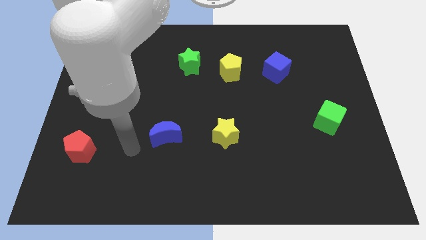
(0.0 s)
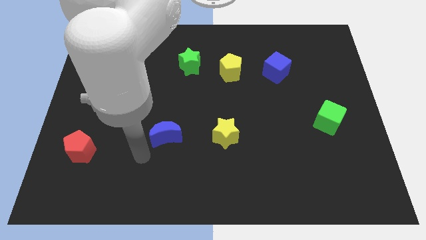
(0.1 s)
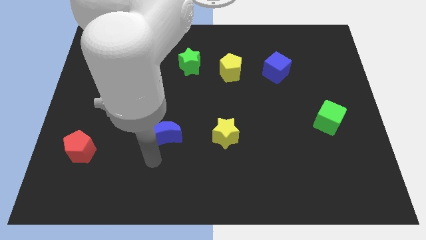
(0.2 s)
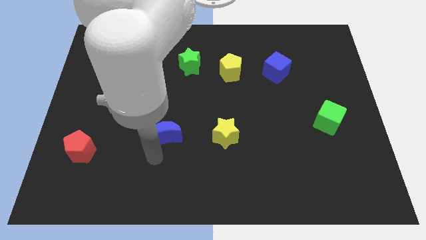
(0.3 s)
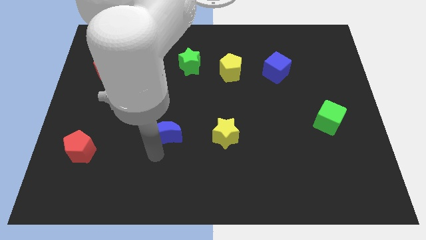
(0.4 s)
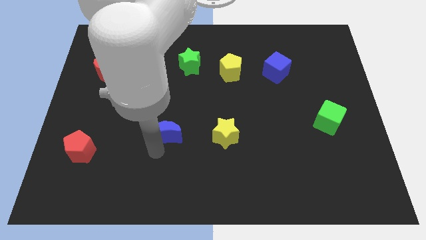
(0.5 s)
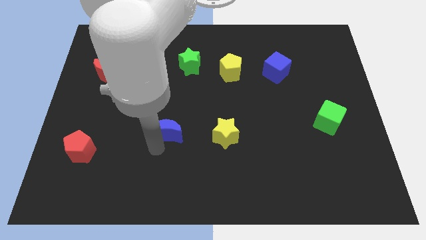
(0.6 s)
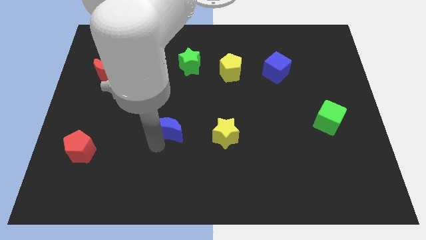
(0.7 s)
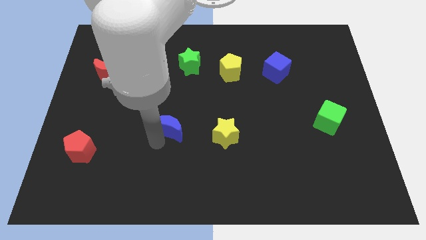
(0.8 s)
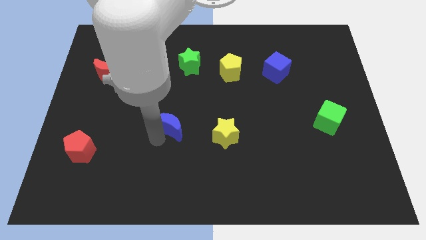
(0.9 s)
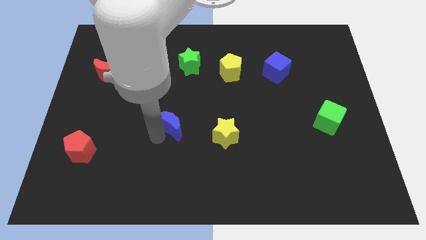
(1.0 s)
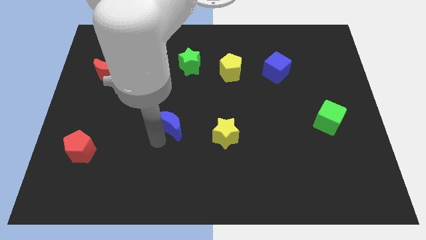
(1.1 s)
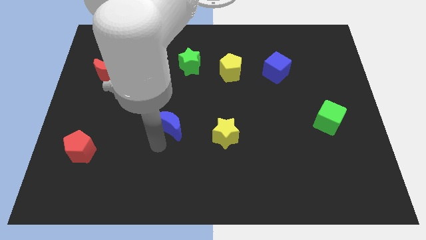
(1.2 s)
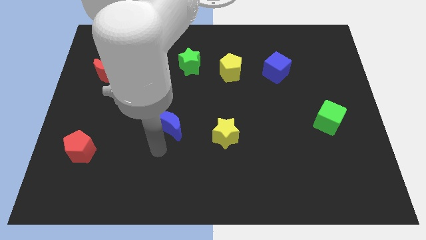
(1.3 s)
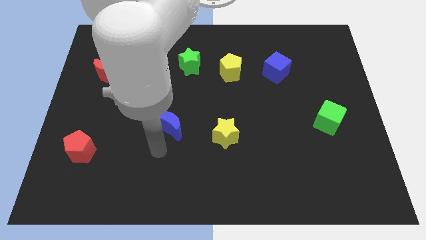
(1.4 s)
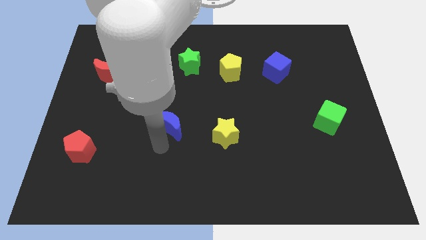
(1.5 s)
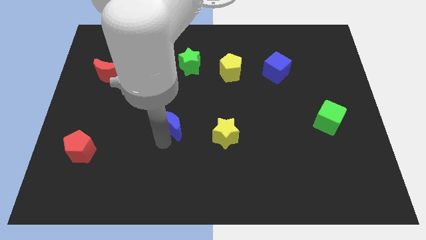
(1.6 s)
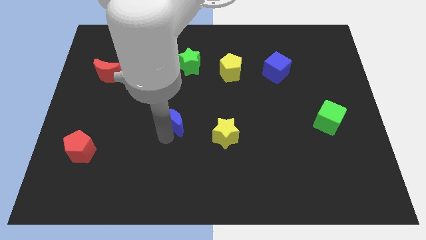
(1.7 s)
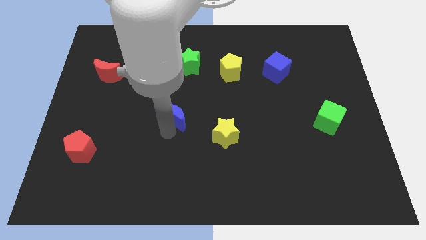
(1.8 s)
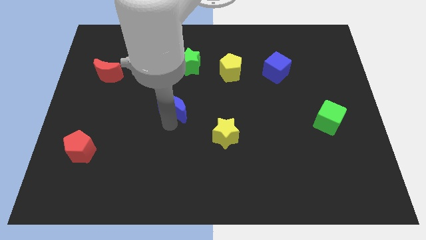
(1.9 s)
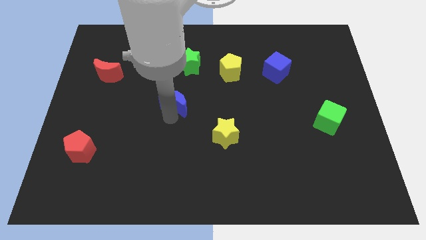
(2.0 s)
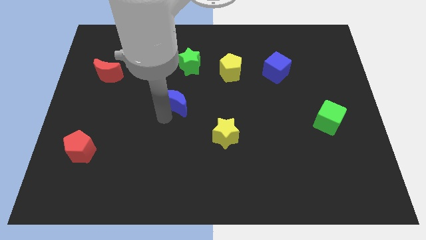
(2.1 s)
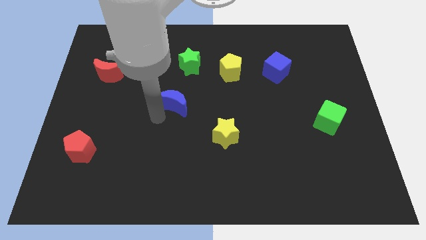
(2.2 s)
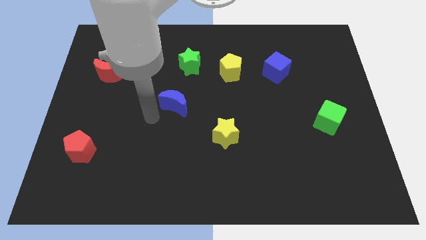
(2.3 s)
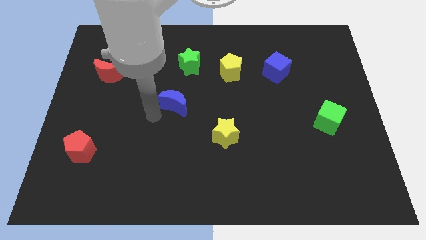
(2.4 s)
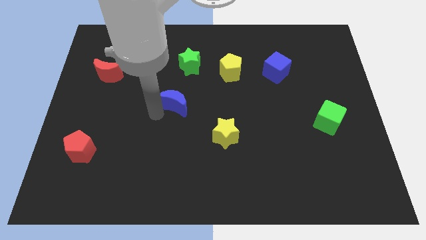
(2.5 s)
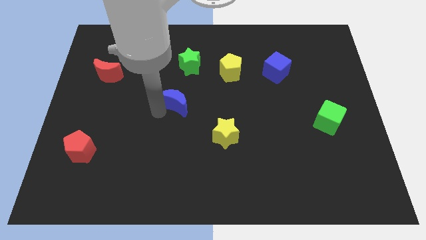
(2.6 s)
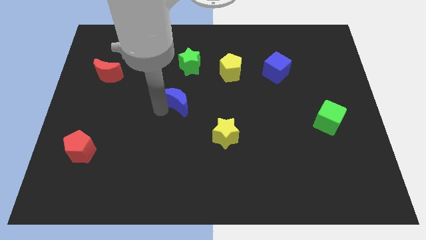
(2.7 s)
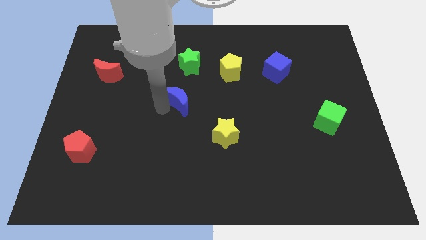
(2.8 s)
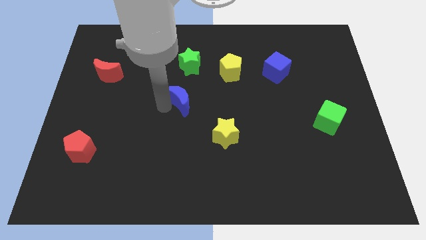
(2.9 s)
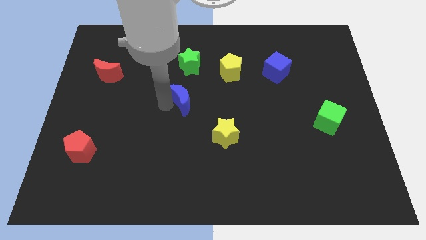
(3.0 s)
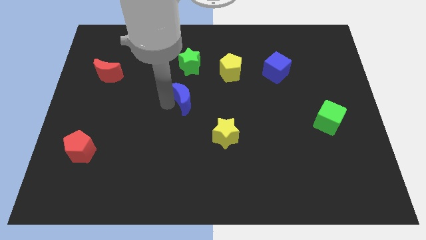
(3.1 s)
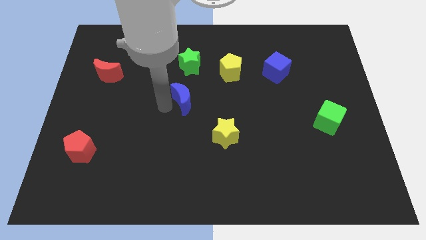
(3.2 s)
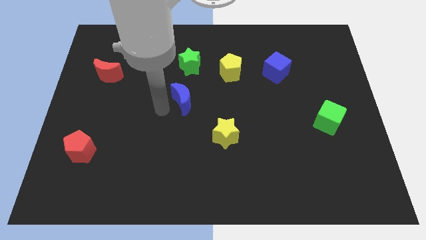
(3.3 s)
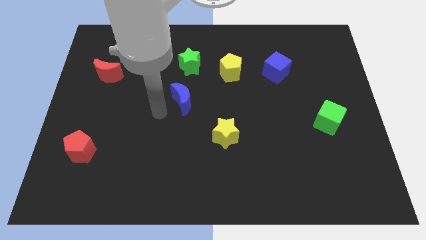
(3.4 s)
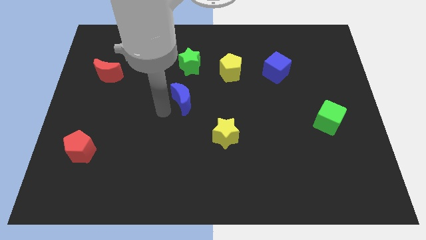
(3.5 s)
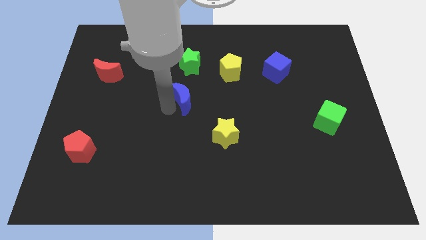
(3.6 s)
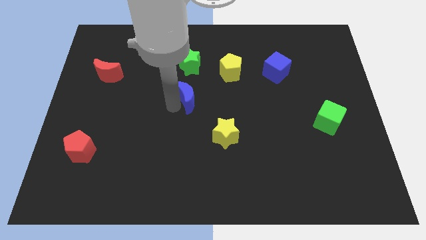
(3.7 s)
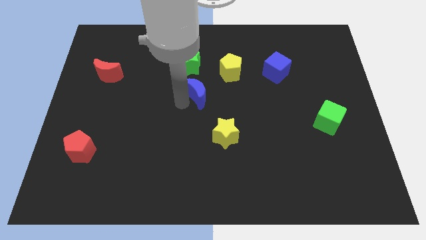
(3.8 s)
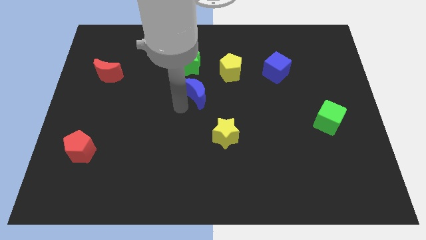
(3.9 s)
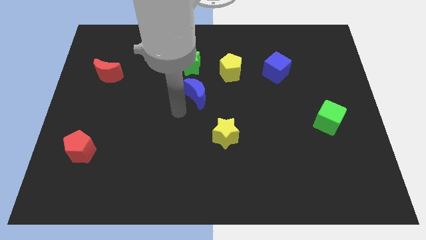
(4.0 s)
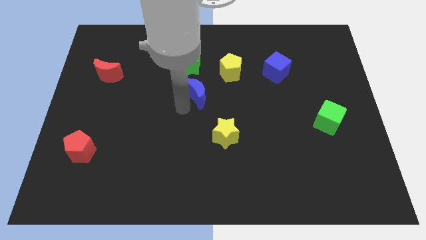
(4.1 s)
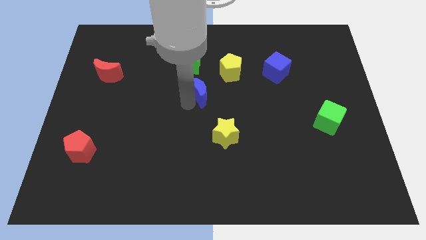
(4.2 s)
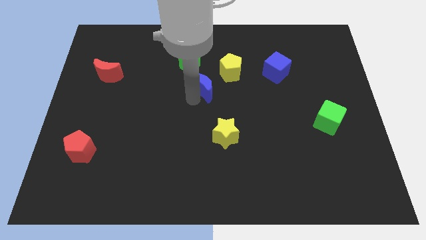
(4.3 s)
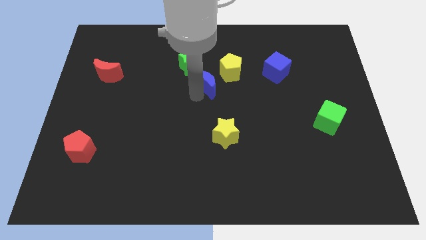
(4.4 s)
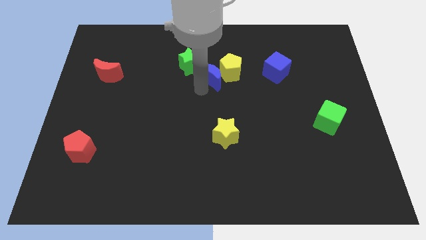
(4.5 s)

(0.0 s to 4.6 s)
push the blue moon towards the yellow pentagon

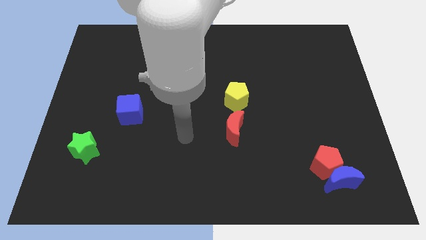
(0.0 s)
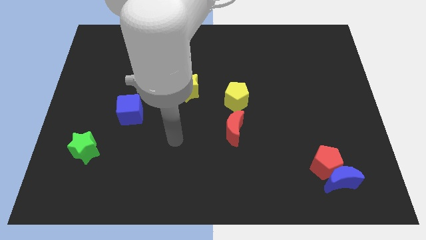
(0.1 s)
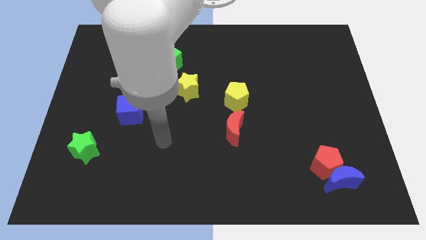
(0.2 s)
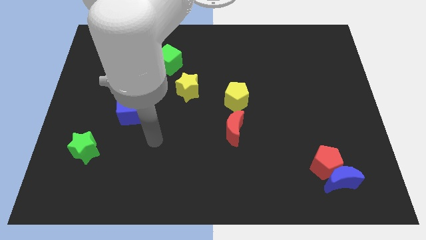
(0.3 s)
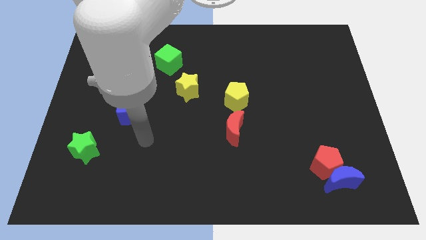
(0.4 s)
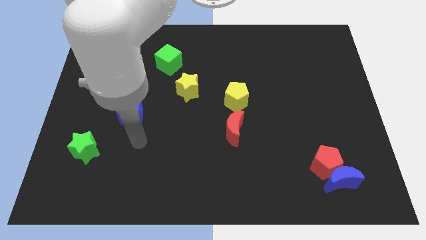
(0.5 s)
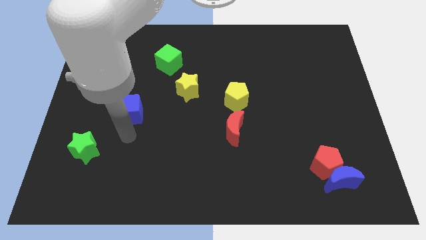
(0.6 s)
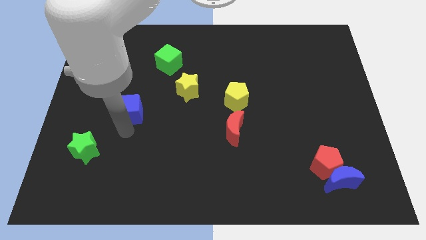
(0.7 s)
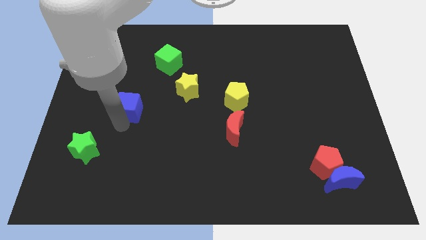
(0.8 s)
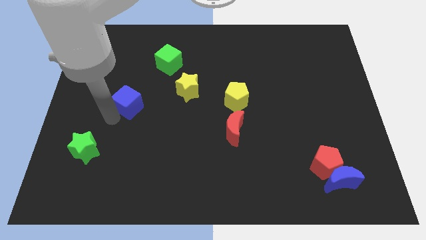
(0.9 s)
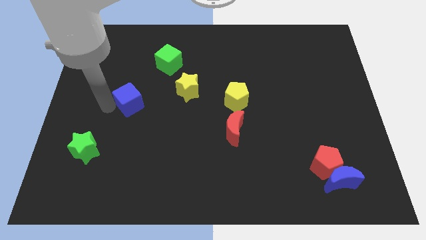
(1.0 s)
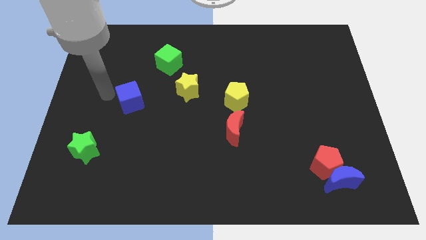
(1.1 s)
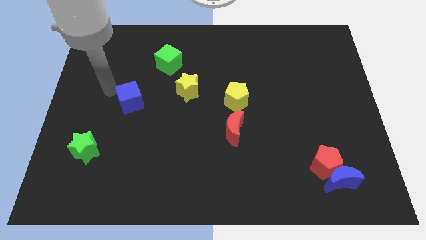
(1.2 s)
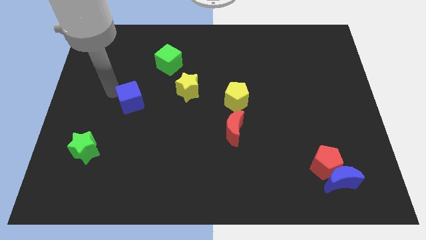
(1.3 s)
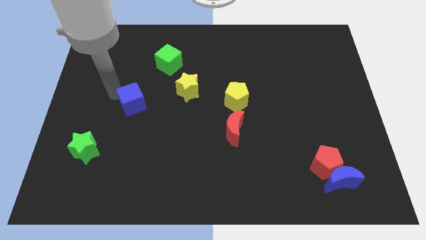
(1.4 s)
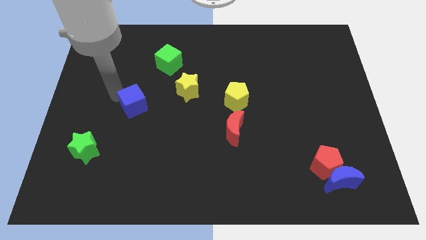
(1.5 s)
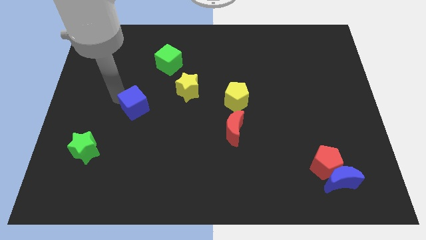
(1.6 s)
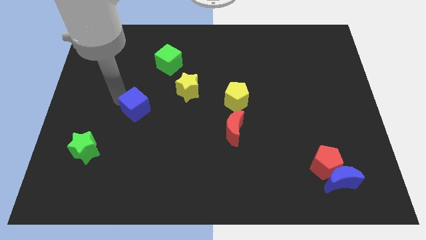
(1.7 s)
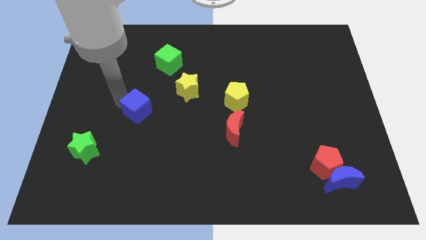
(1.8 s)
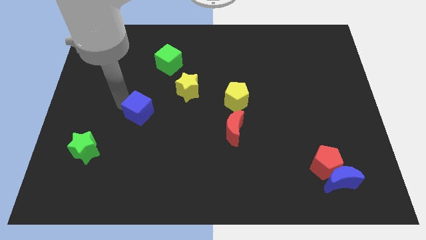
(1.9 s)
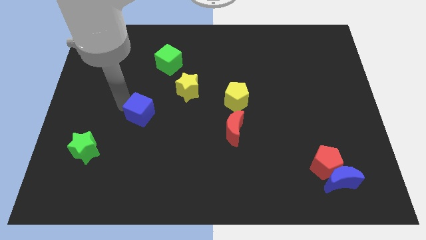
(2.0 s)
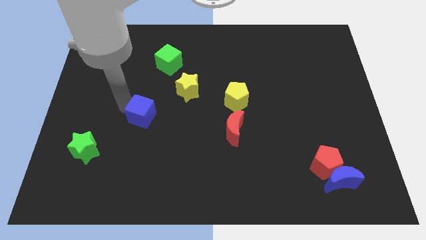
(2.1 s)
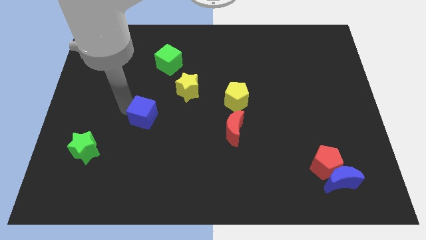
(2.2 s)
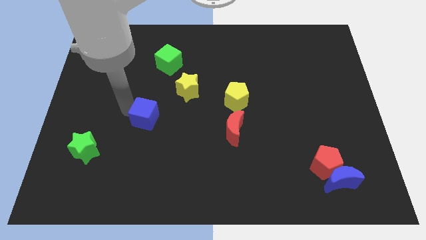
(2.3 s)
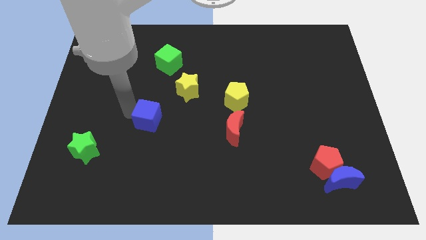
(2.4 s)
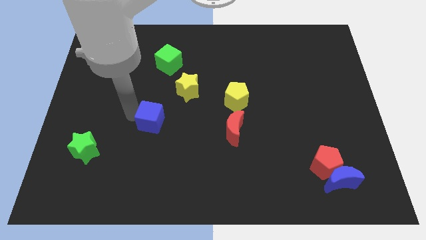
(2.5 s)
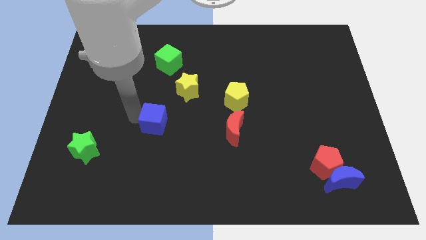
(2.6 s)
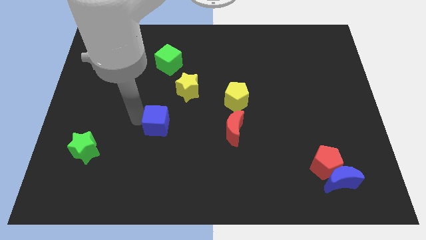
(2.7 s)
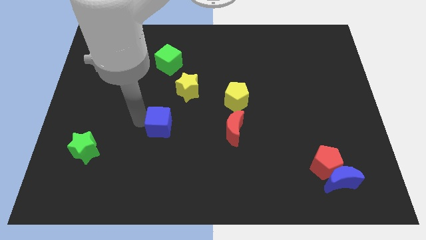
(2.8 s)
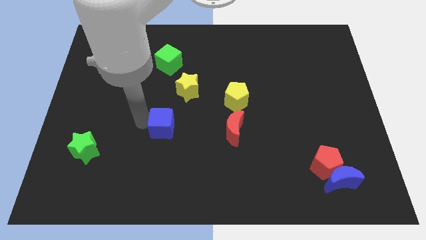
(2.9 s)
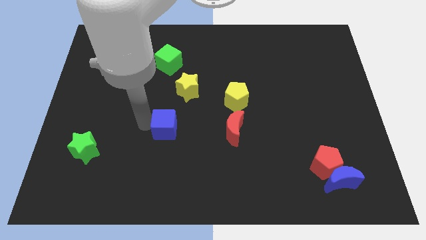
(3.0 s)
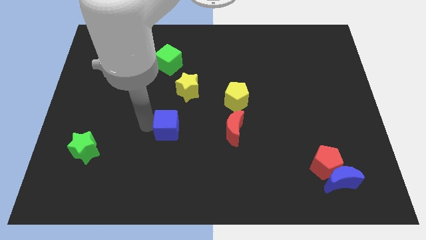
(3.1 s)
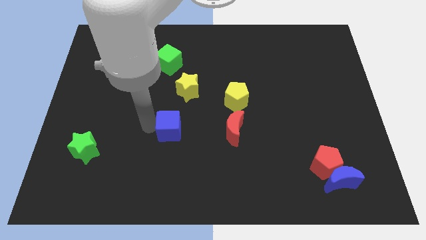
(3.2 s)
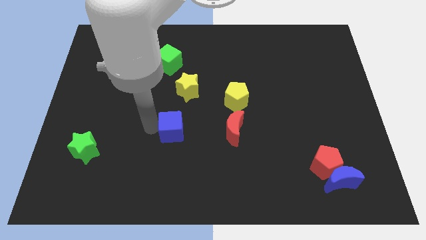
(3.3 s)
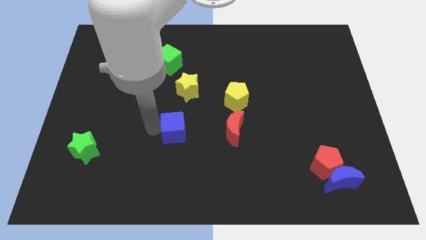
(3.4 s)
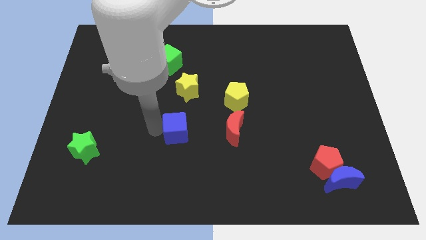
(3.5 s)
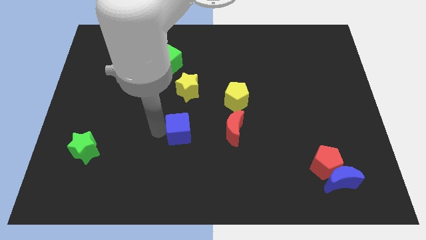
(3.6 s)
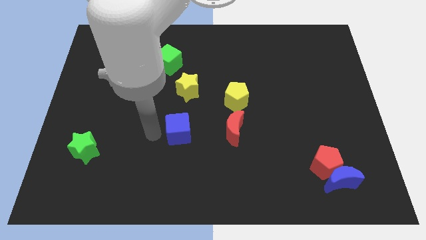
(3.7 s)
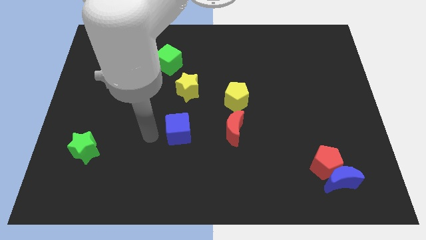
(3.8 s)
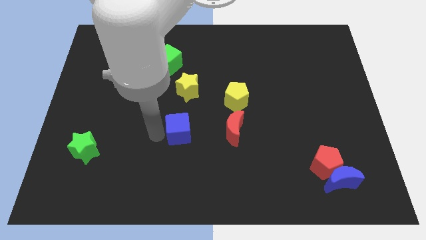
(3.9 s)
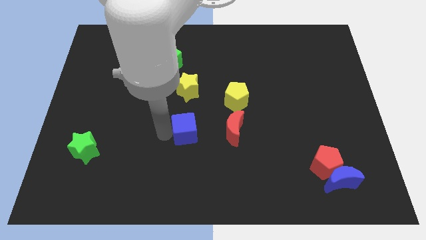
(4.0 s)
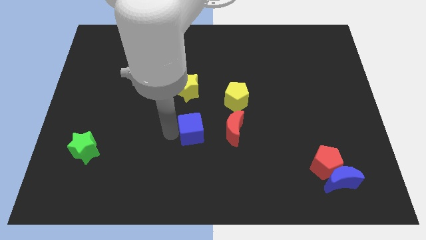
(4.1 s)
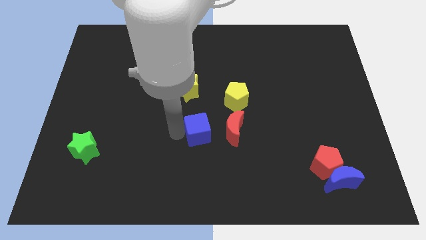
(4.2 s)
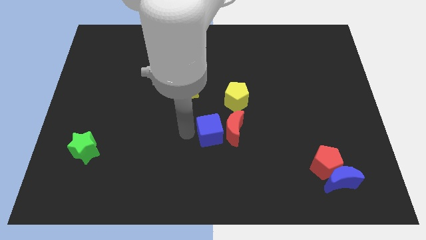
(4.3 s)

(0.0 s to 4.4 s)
put the blue cube close to the red moon
